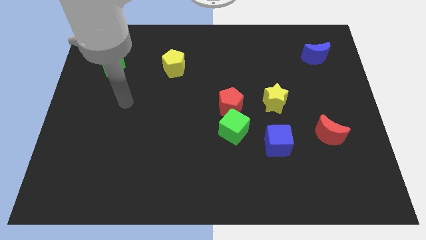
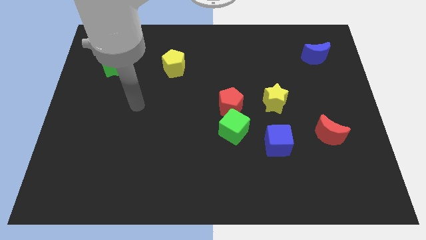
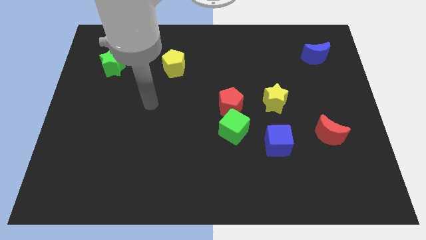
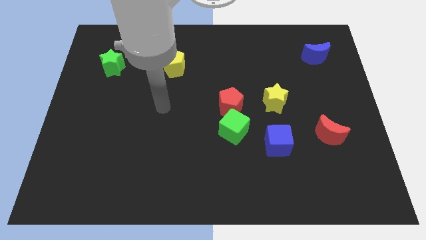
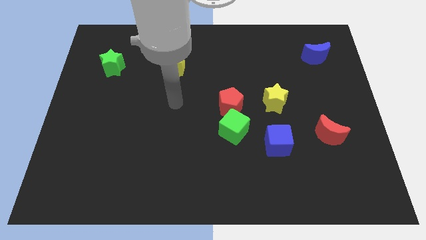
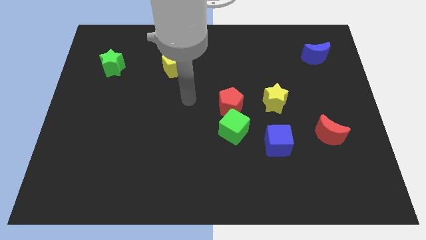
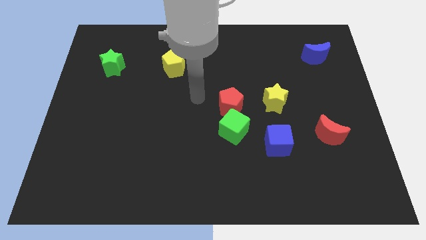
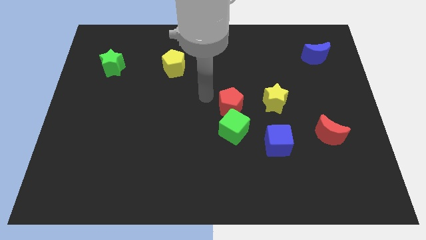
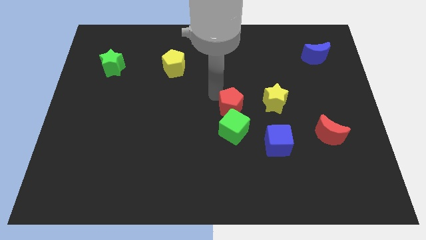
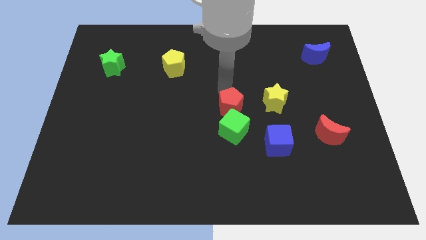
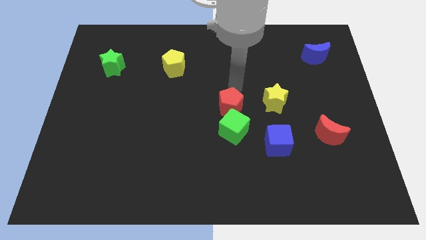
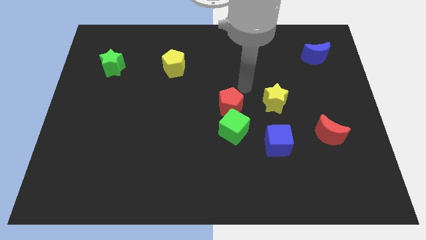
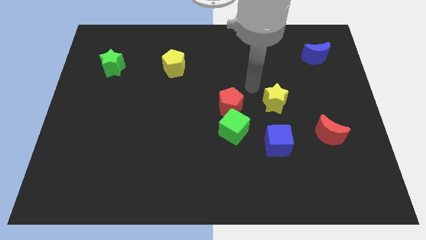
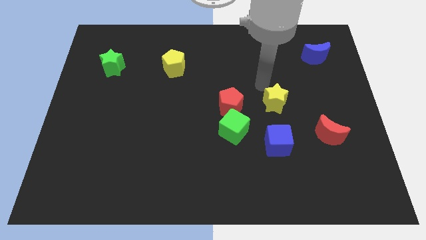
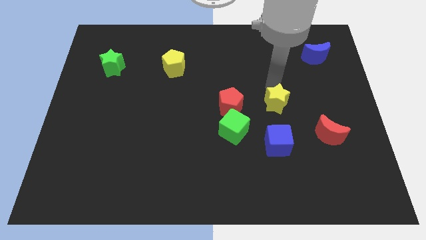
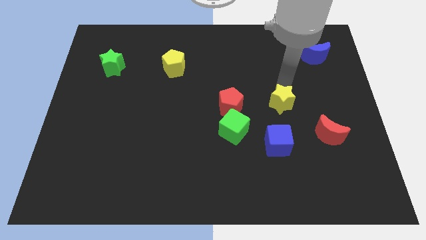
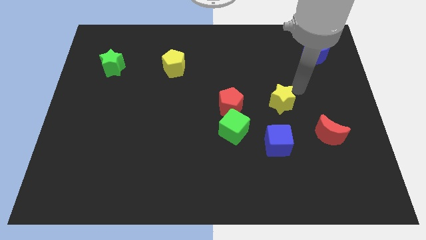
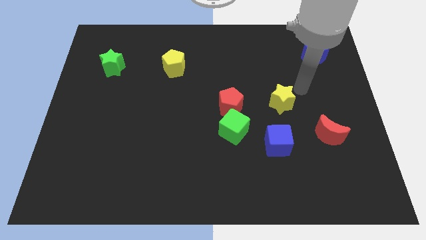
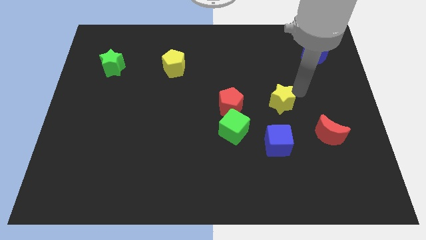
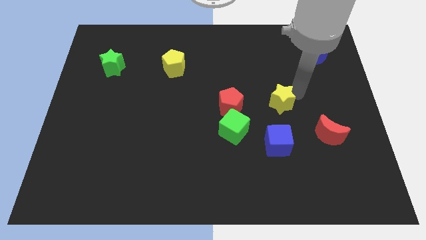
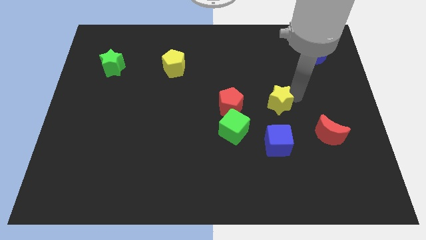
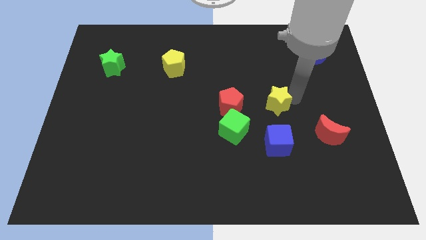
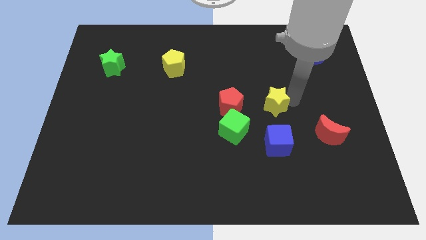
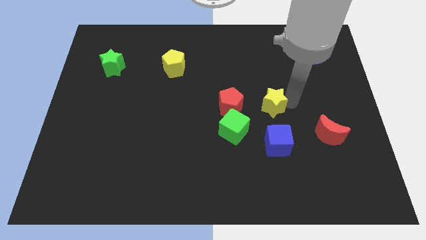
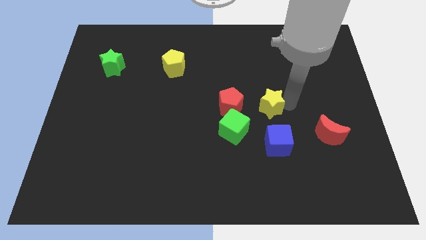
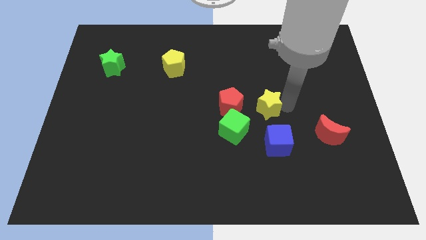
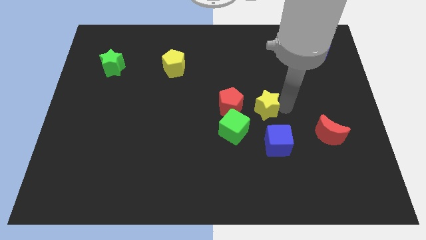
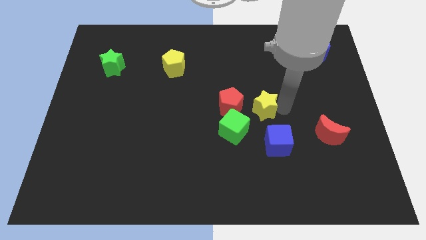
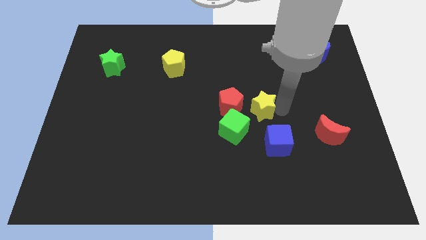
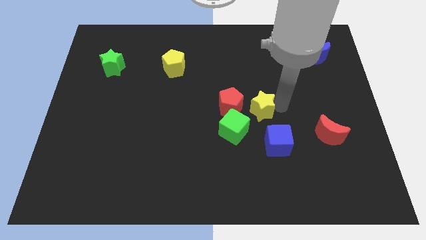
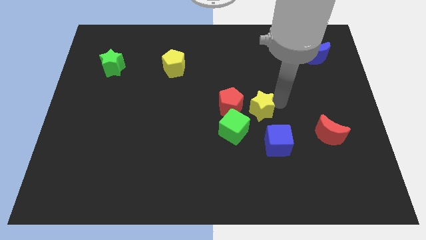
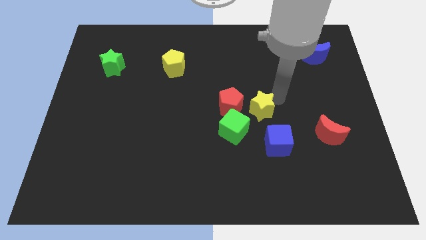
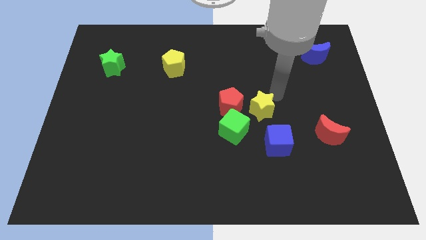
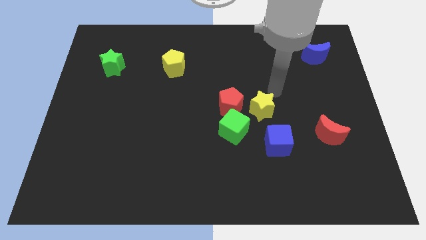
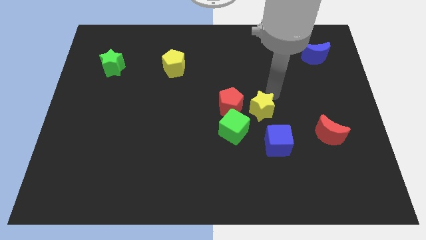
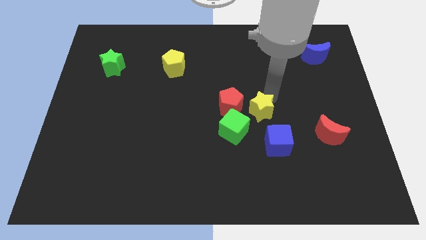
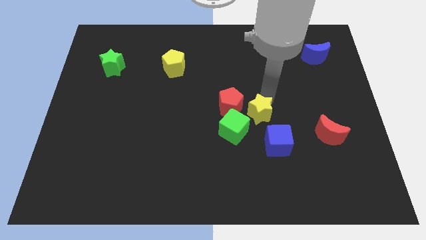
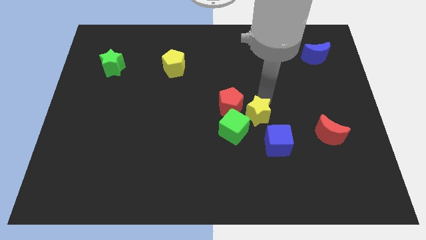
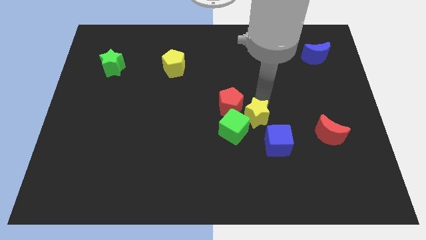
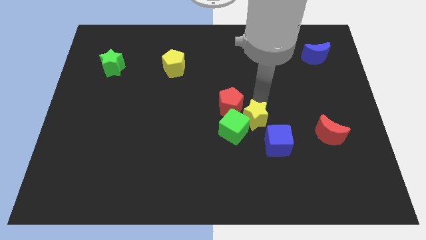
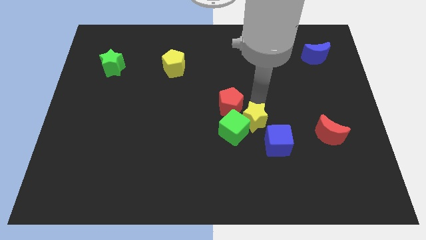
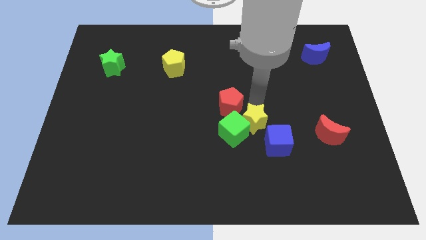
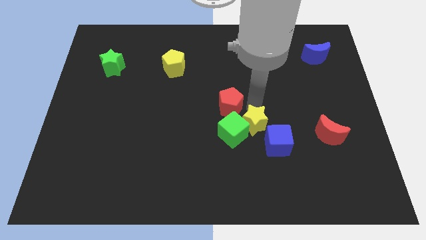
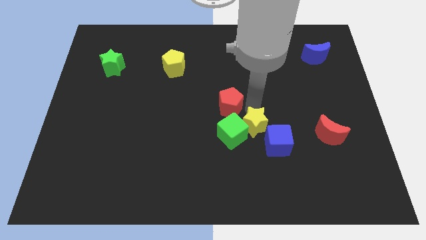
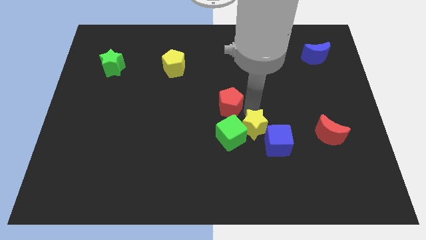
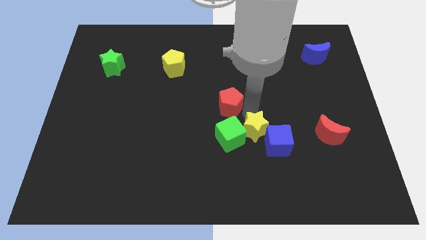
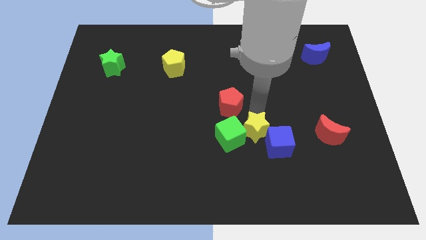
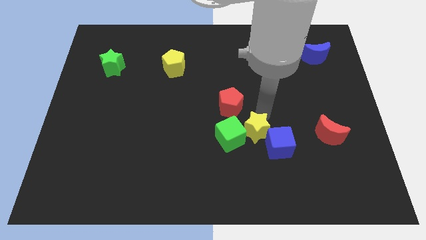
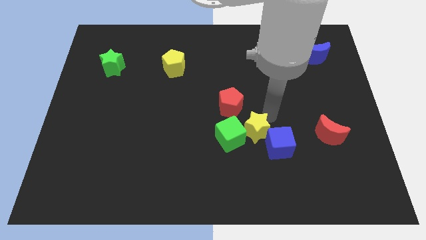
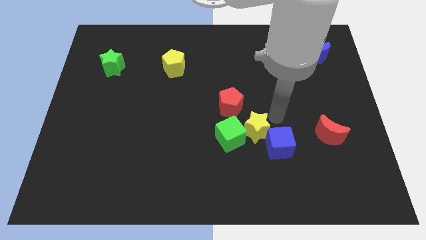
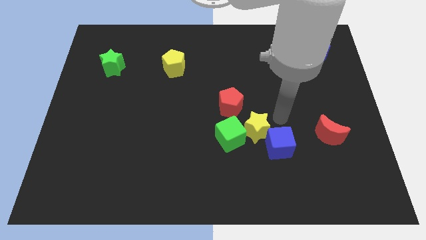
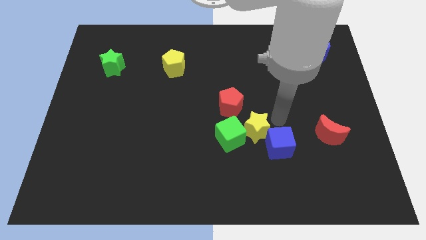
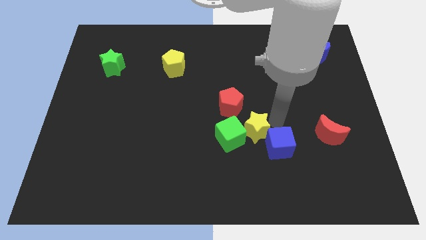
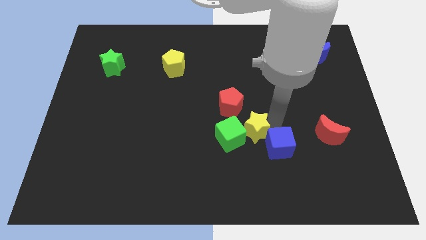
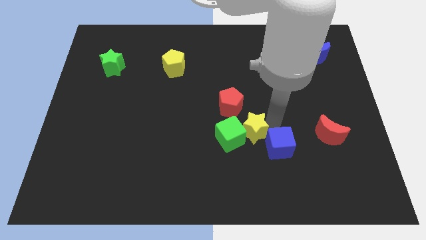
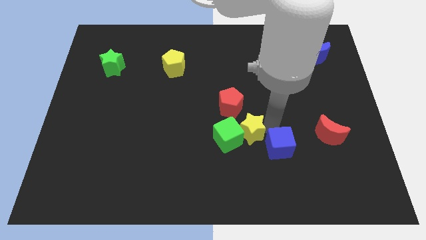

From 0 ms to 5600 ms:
put the yellow star below the red pentagon

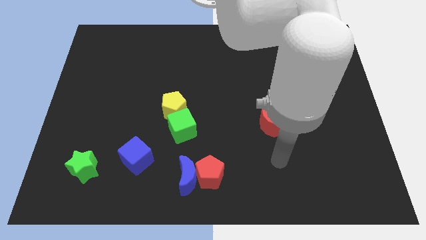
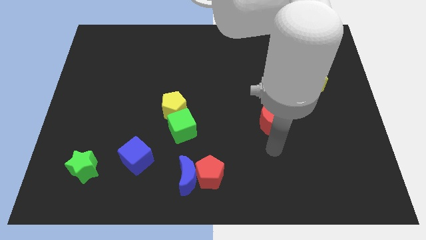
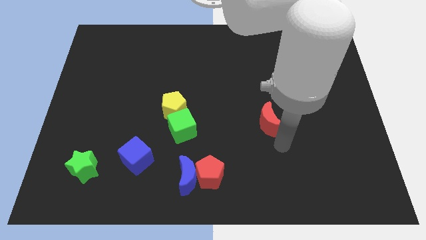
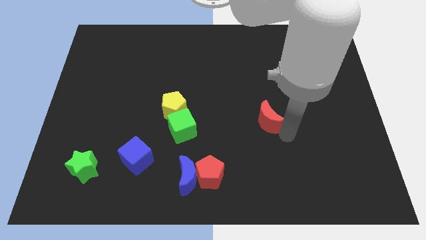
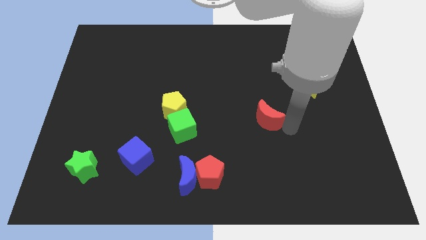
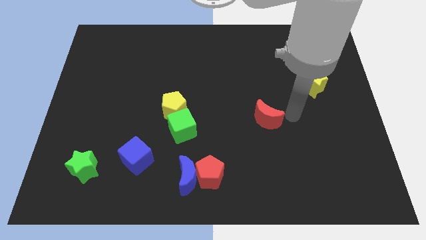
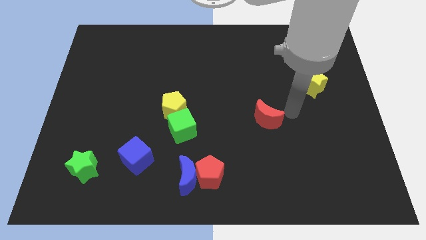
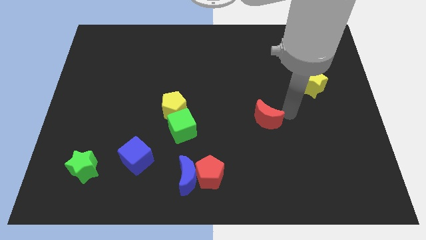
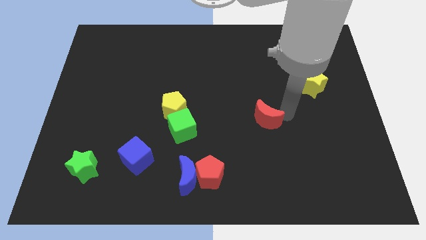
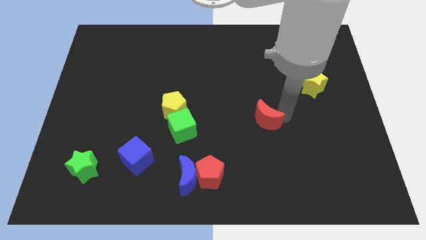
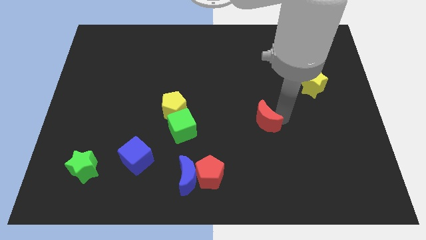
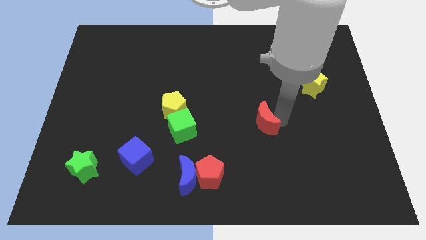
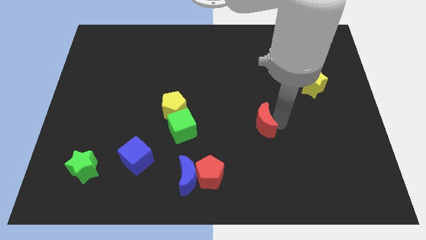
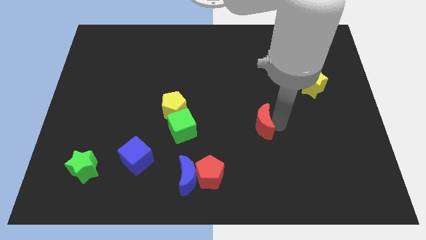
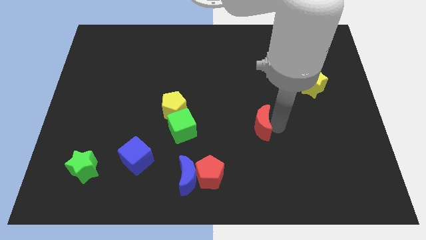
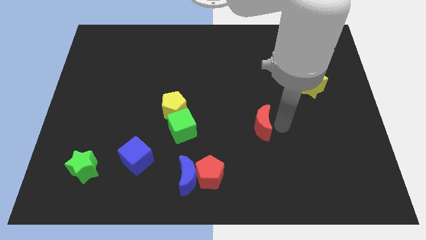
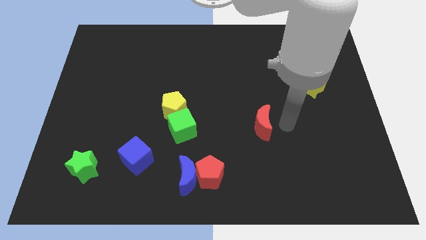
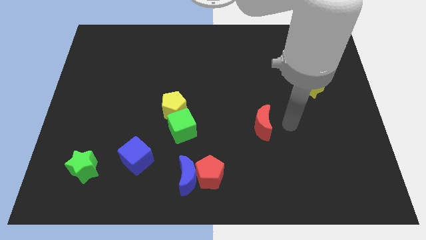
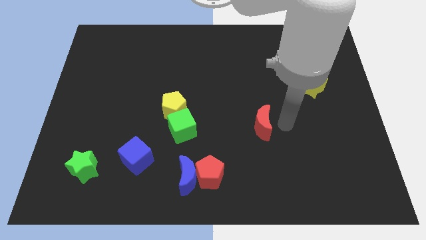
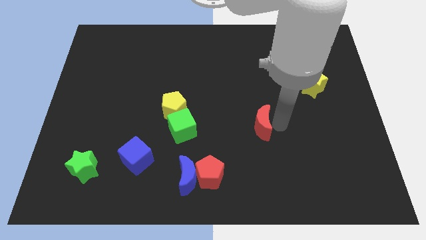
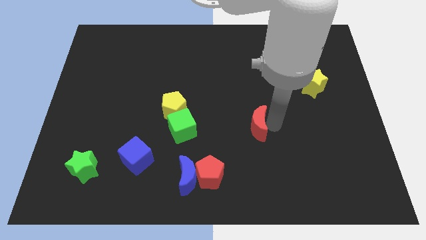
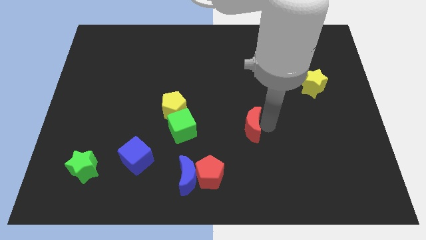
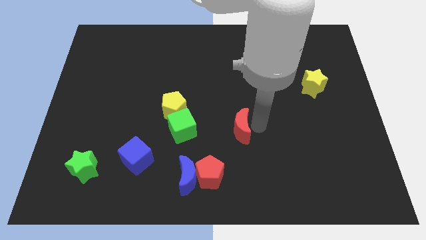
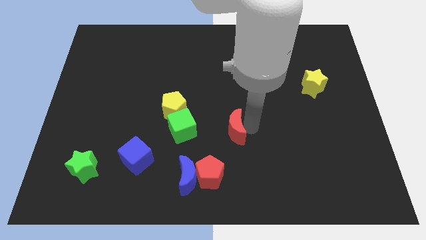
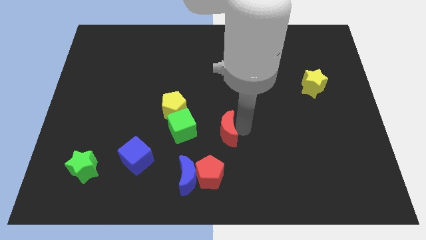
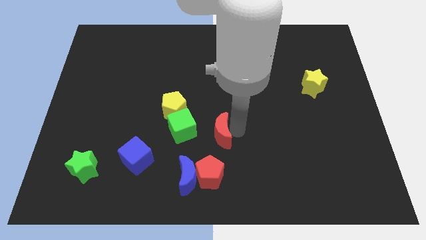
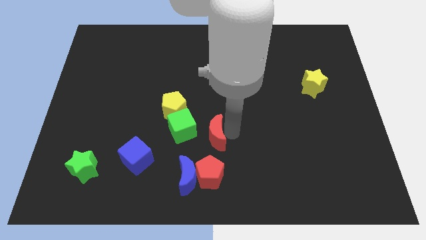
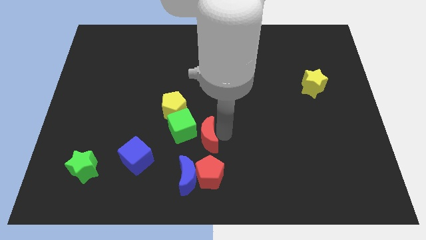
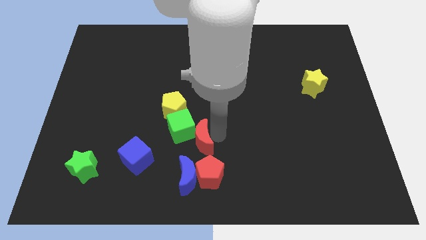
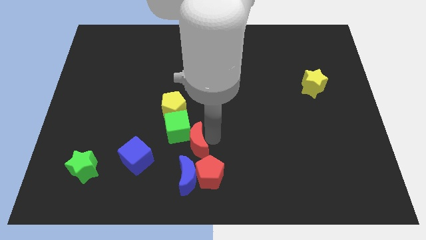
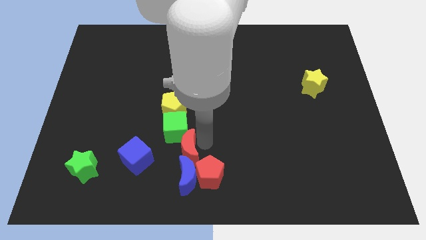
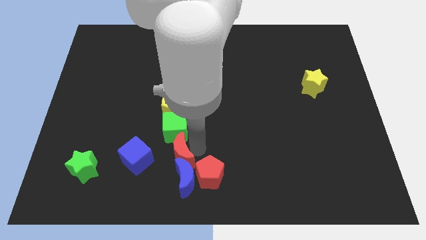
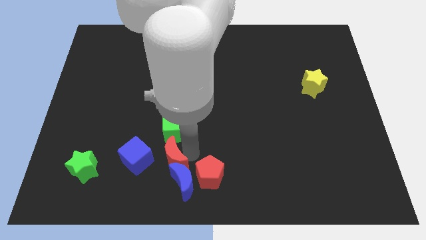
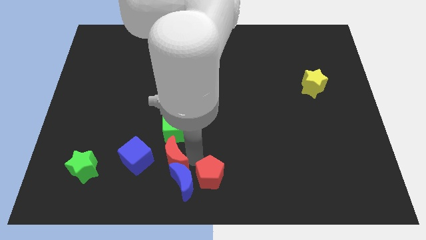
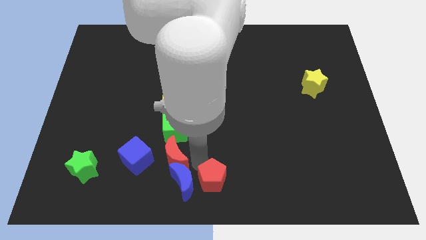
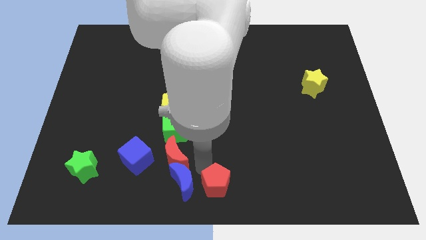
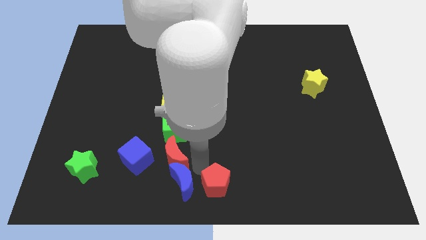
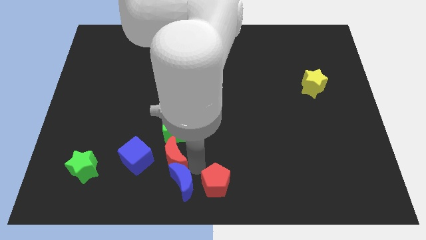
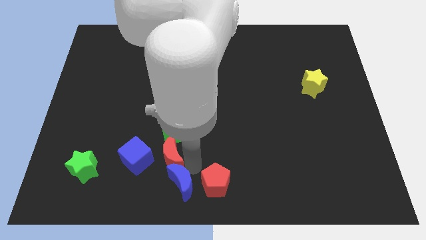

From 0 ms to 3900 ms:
put the red moon to the bottom left side of the green cube
